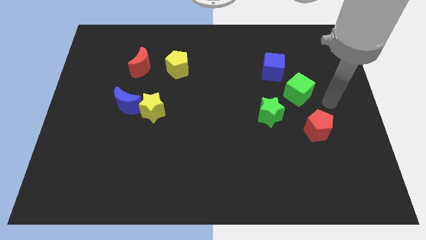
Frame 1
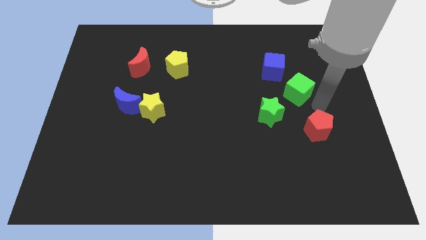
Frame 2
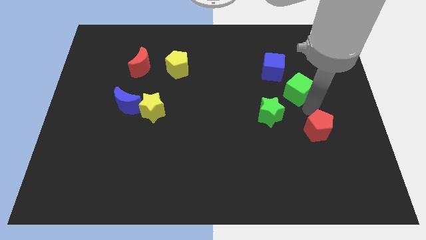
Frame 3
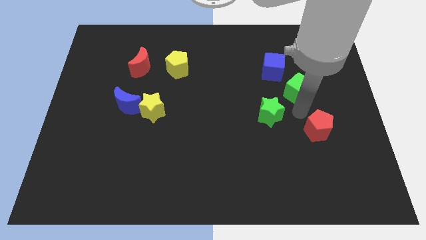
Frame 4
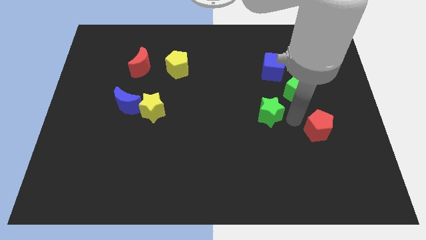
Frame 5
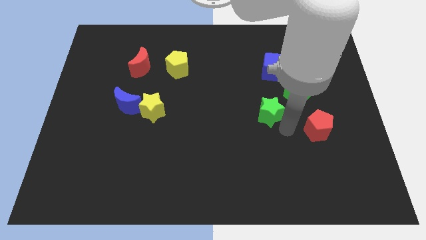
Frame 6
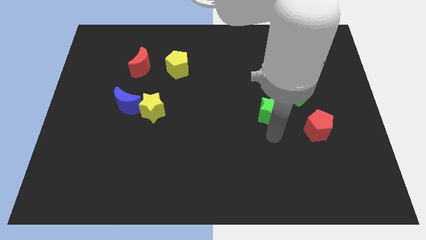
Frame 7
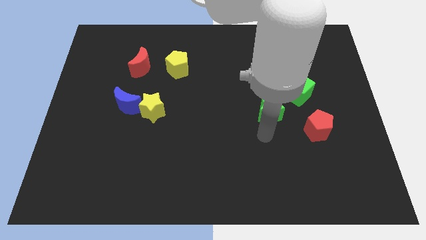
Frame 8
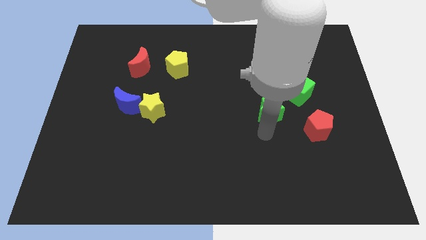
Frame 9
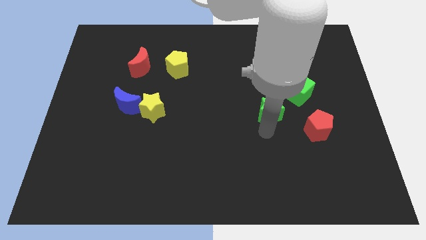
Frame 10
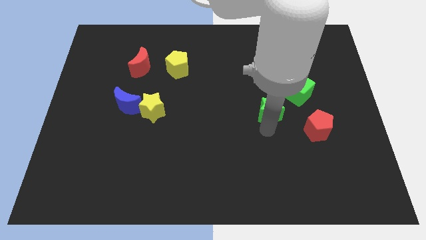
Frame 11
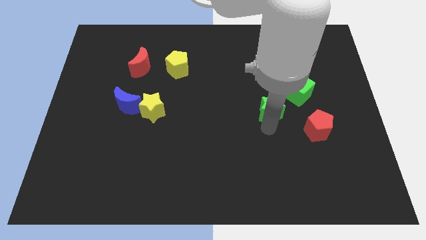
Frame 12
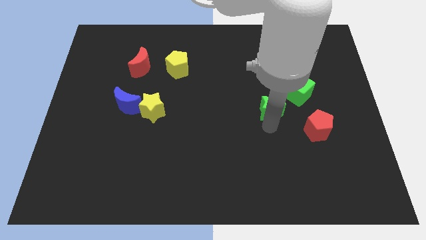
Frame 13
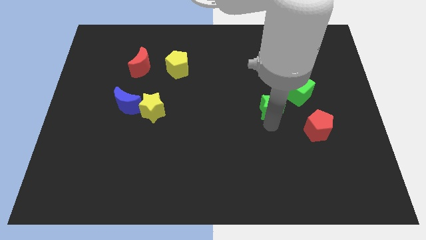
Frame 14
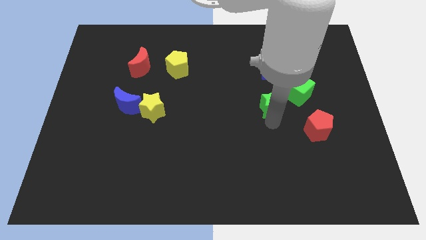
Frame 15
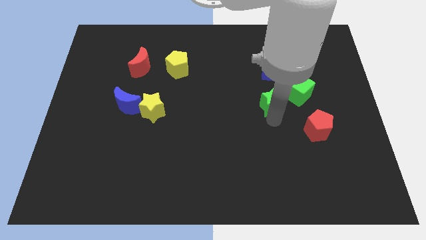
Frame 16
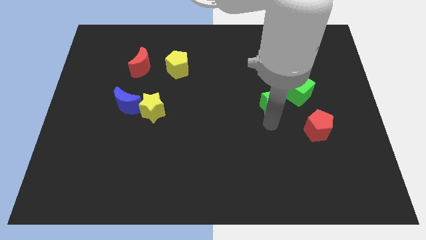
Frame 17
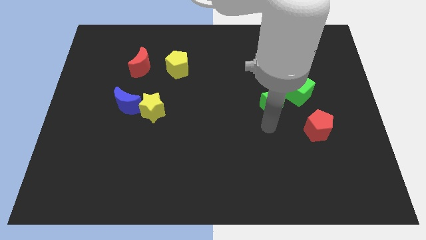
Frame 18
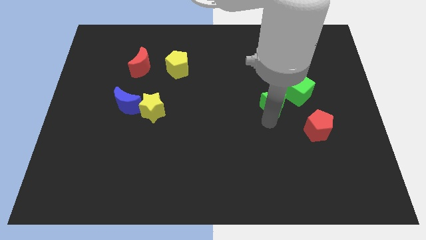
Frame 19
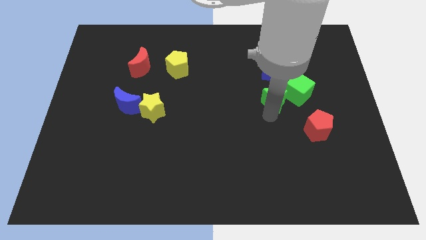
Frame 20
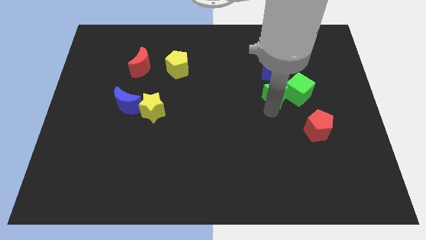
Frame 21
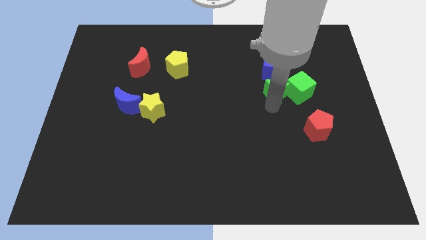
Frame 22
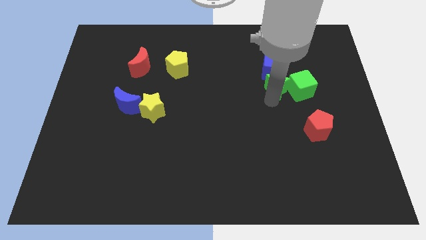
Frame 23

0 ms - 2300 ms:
move the green star upwards and right diagonally a little bit

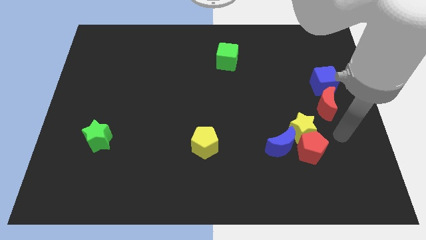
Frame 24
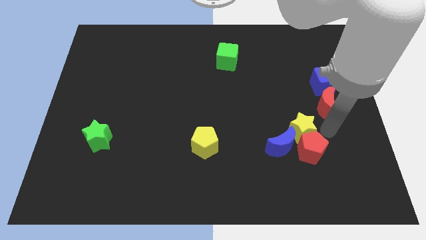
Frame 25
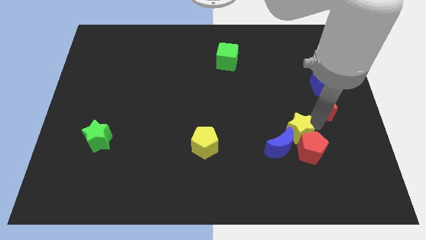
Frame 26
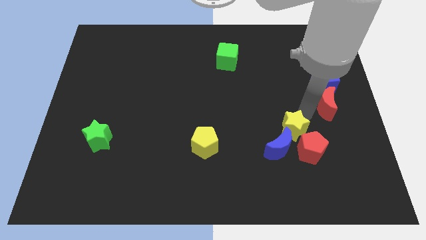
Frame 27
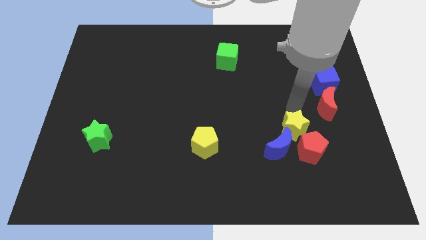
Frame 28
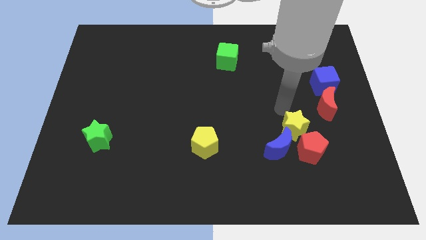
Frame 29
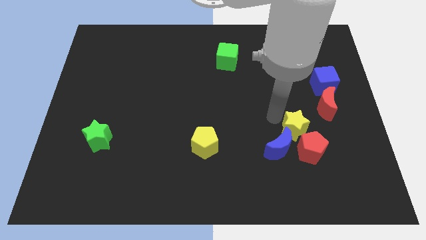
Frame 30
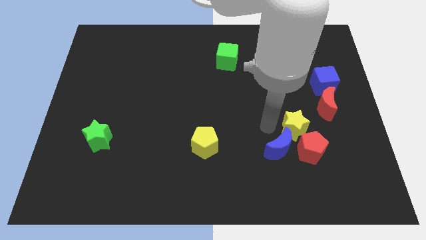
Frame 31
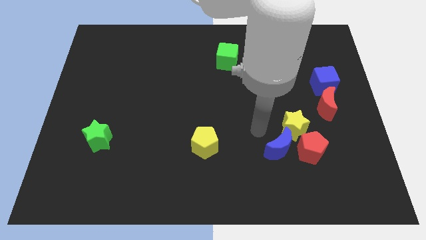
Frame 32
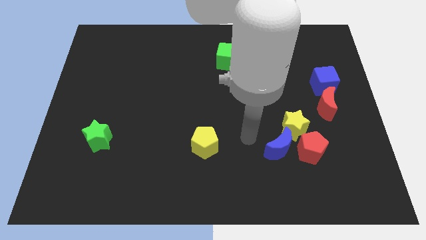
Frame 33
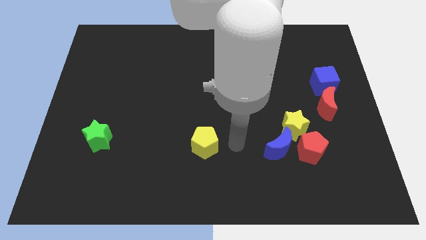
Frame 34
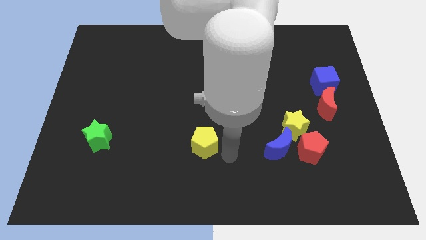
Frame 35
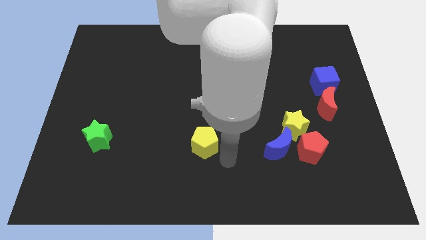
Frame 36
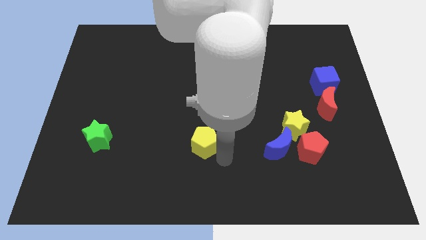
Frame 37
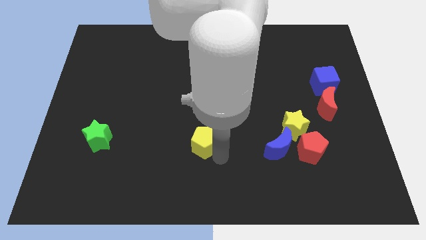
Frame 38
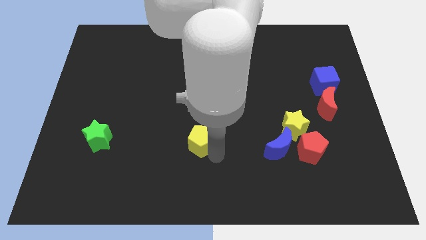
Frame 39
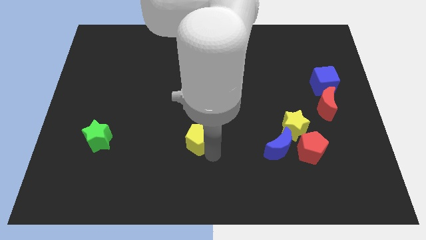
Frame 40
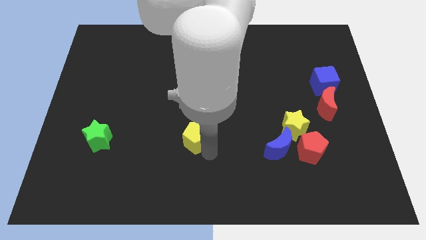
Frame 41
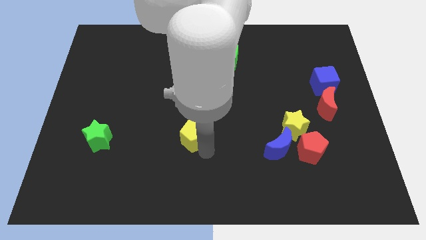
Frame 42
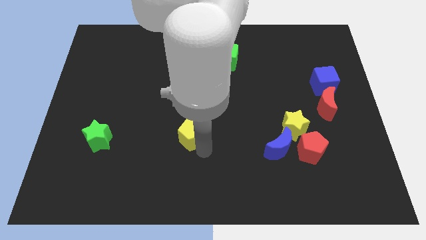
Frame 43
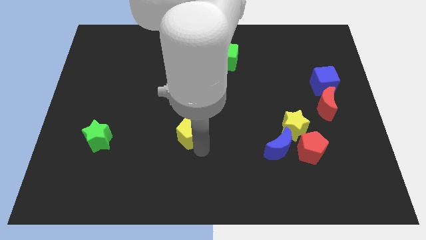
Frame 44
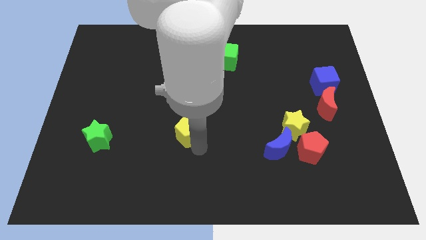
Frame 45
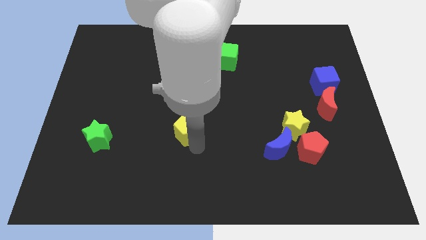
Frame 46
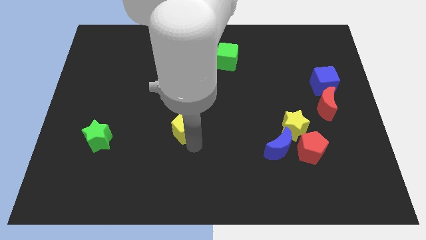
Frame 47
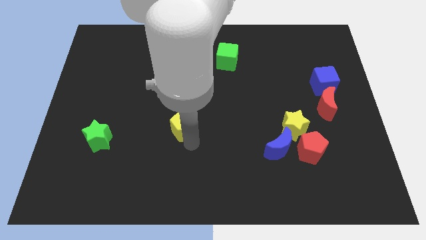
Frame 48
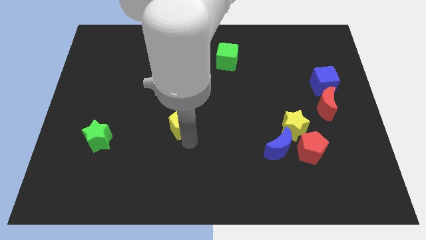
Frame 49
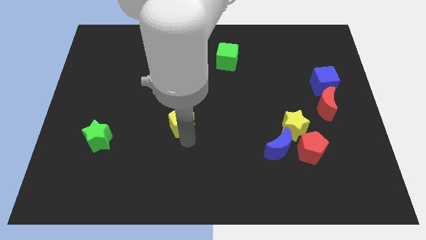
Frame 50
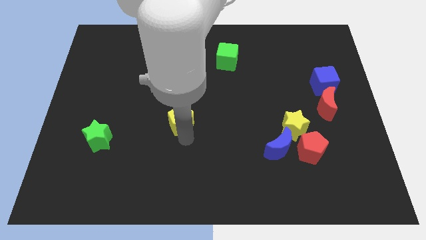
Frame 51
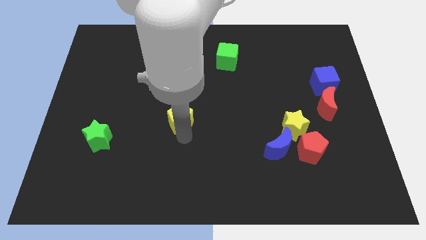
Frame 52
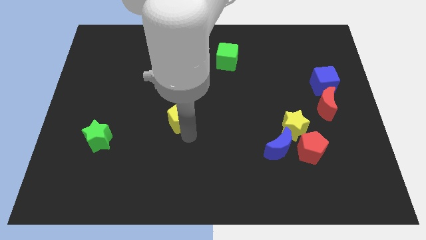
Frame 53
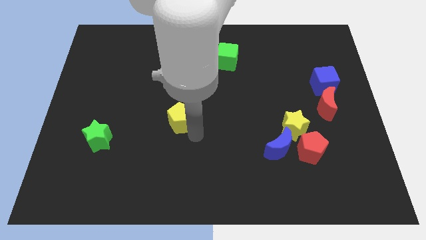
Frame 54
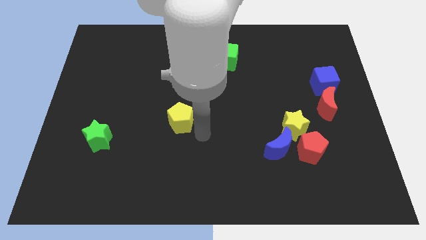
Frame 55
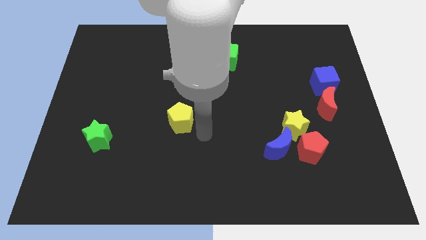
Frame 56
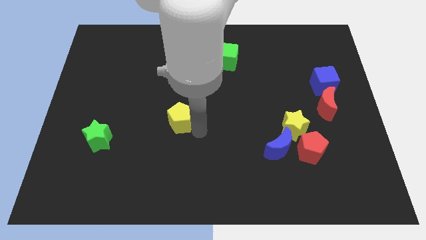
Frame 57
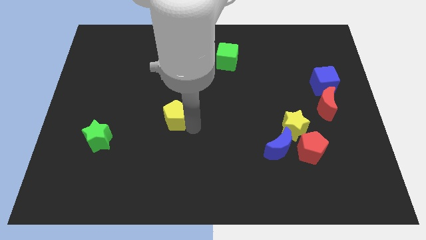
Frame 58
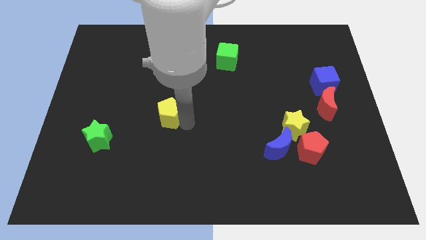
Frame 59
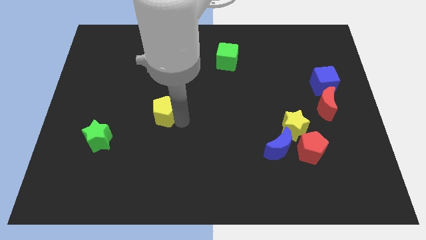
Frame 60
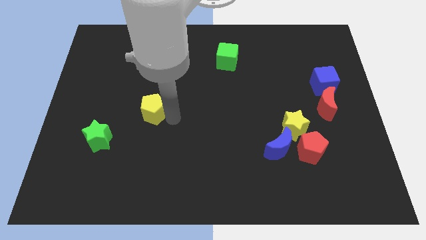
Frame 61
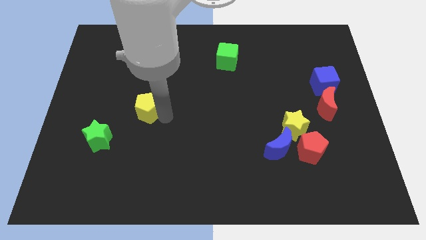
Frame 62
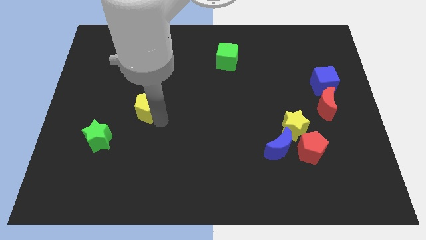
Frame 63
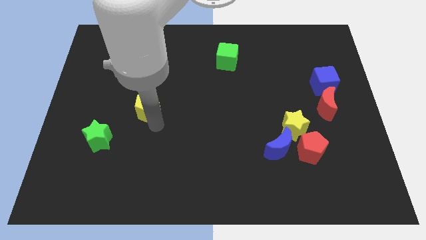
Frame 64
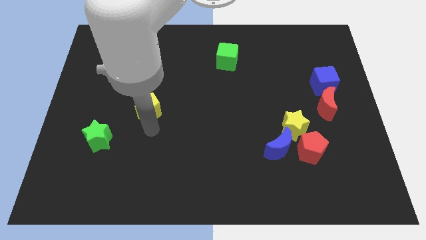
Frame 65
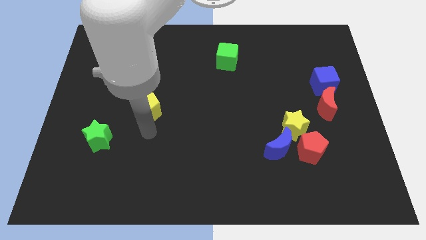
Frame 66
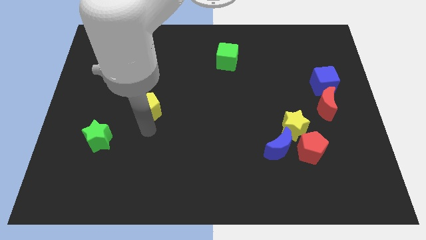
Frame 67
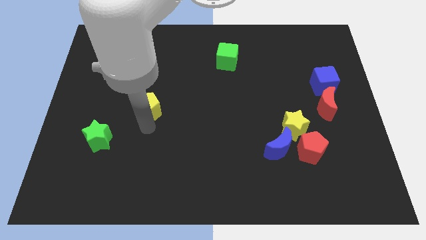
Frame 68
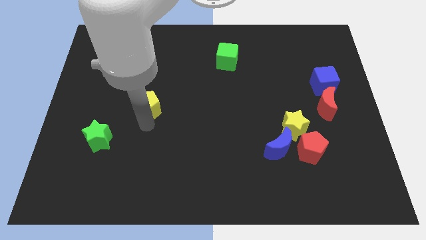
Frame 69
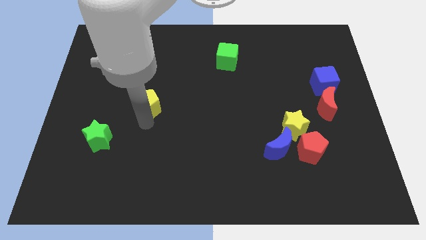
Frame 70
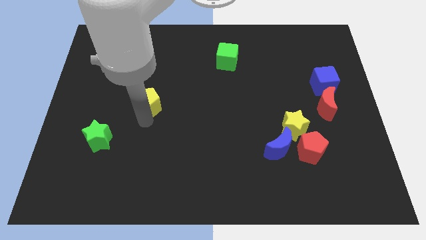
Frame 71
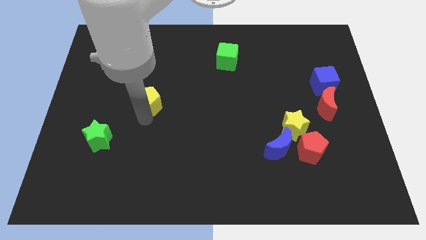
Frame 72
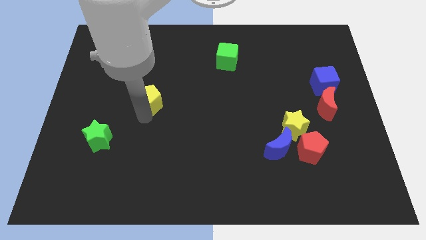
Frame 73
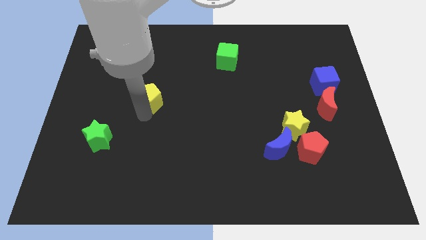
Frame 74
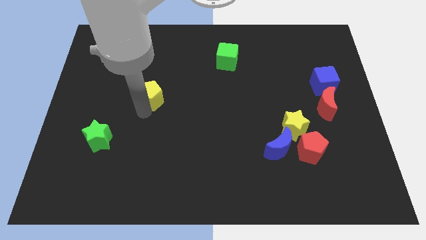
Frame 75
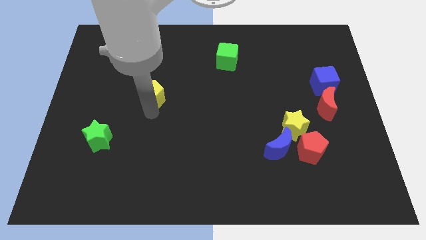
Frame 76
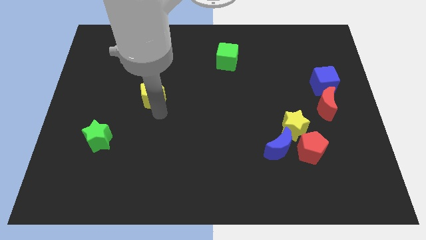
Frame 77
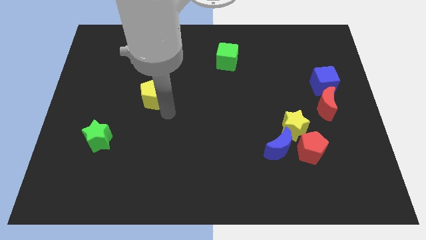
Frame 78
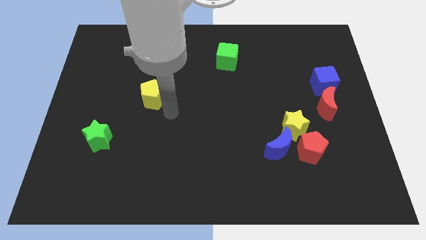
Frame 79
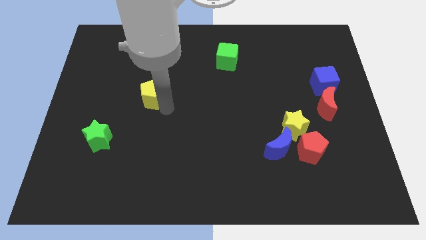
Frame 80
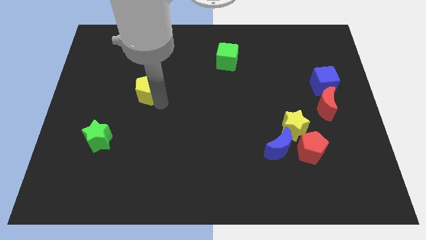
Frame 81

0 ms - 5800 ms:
slide the yellow pentagon up and left
